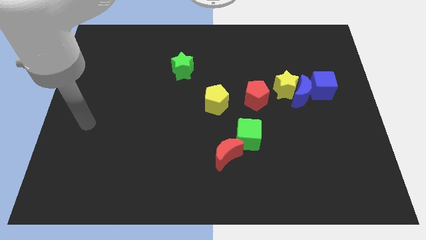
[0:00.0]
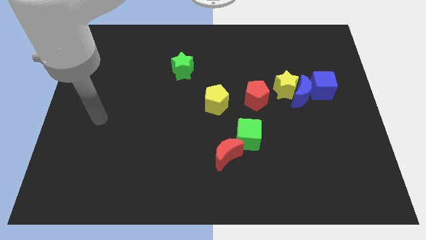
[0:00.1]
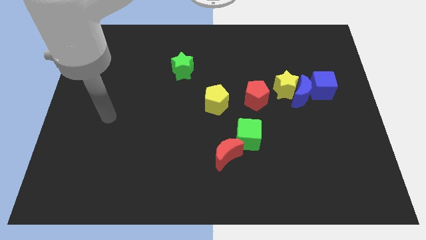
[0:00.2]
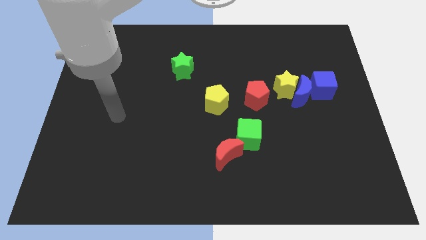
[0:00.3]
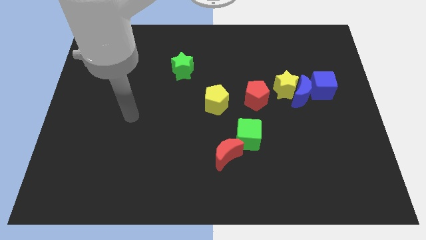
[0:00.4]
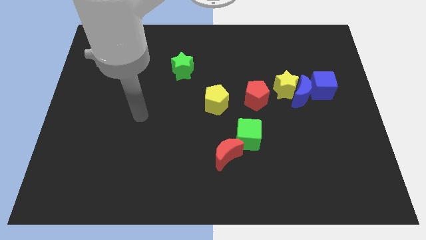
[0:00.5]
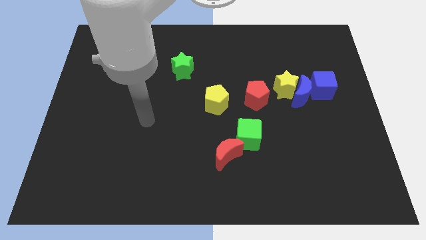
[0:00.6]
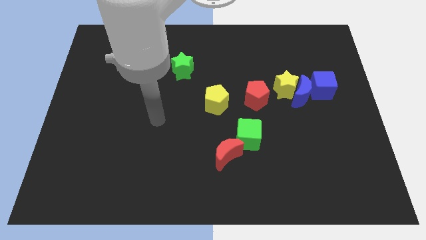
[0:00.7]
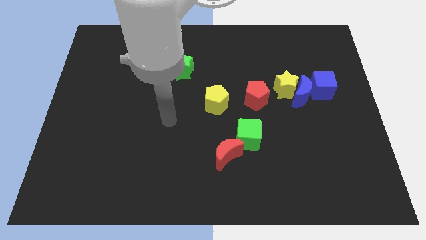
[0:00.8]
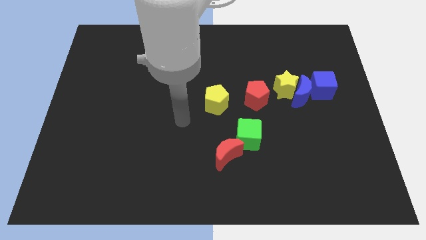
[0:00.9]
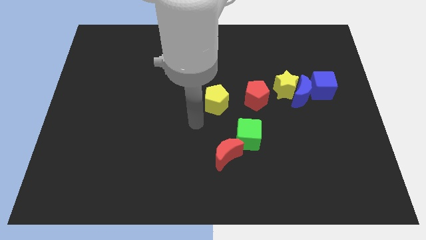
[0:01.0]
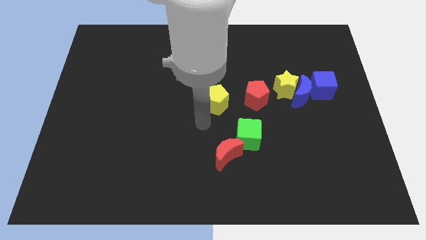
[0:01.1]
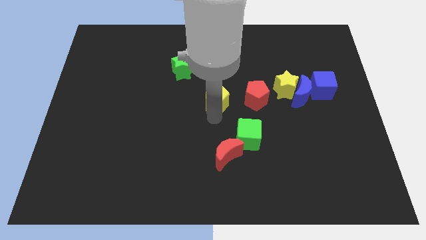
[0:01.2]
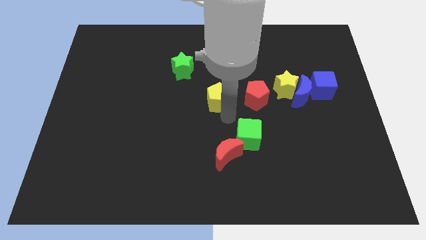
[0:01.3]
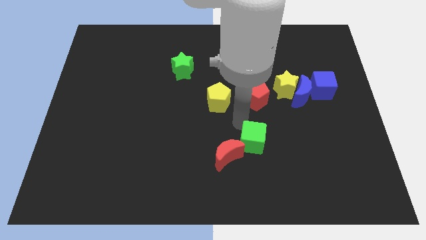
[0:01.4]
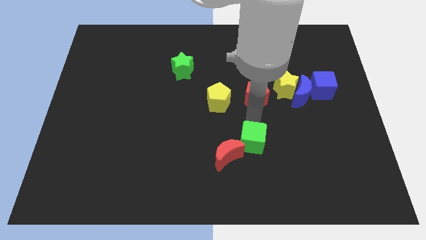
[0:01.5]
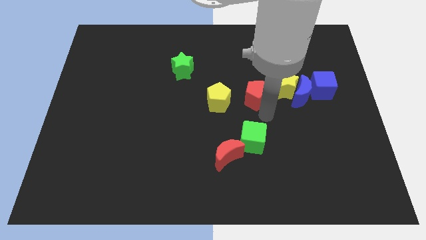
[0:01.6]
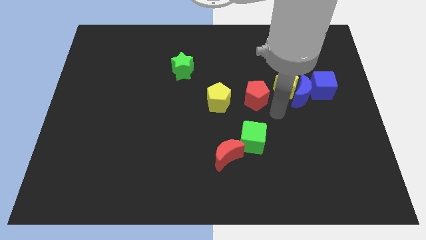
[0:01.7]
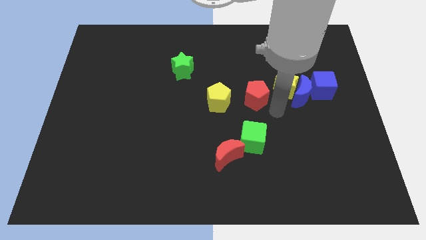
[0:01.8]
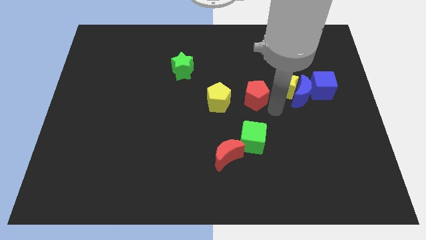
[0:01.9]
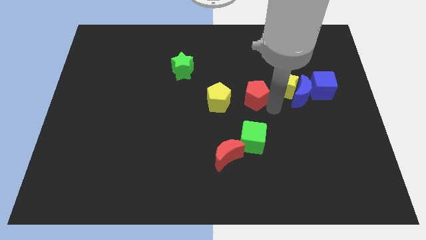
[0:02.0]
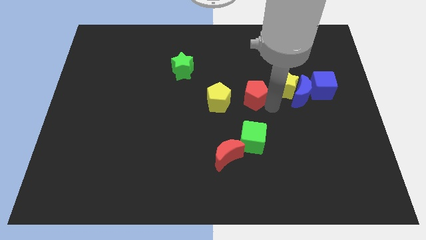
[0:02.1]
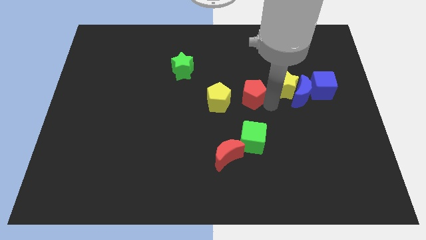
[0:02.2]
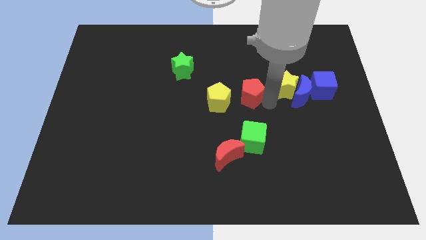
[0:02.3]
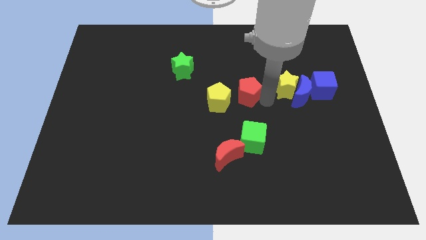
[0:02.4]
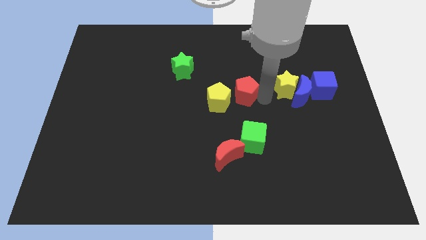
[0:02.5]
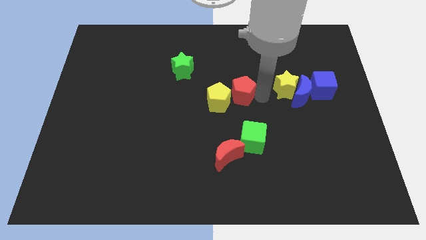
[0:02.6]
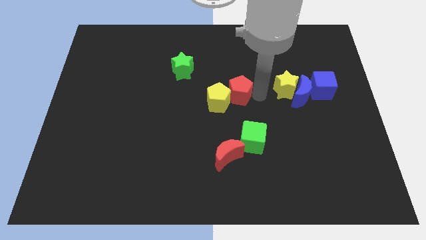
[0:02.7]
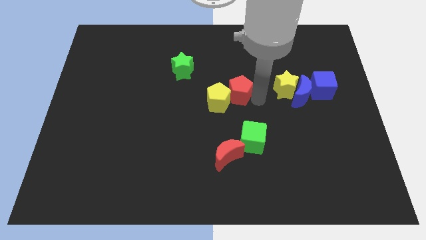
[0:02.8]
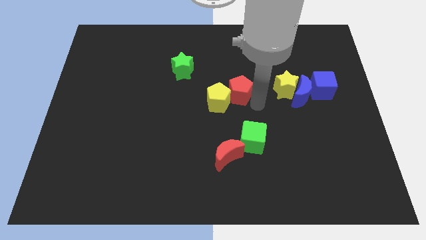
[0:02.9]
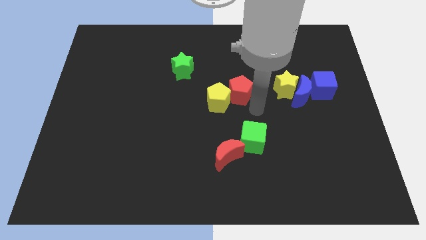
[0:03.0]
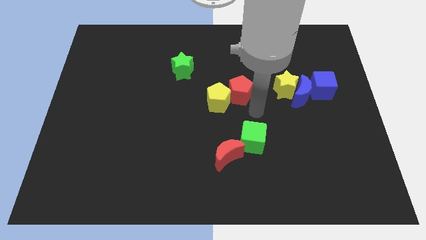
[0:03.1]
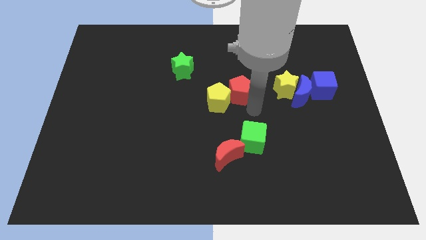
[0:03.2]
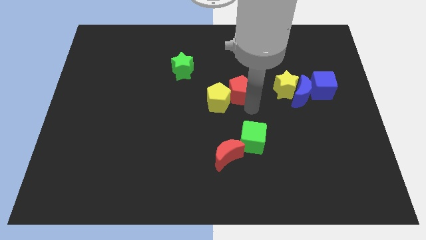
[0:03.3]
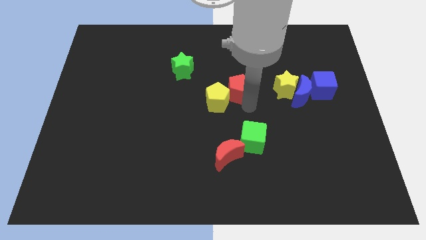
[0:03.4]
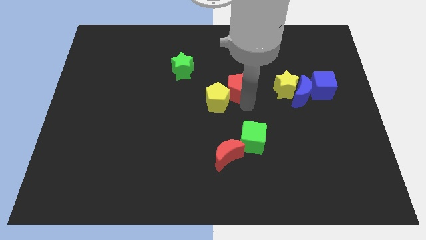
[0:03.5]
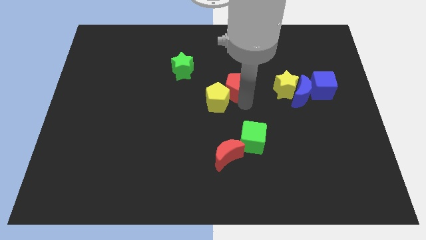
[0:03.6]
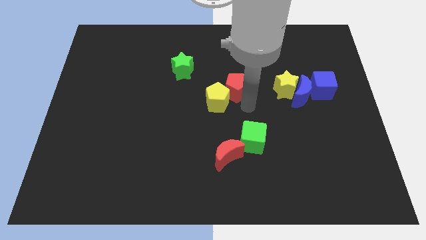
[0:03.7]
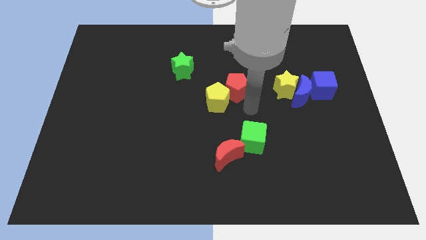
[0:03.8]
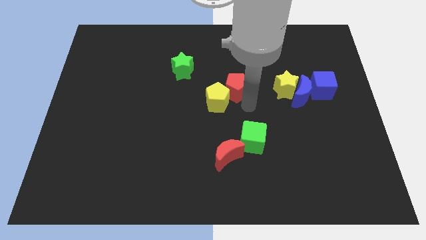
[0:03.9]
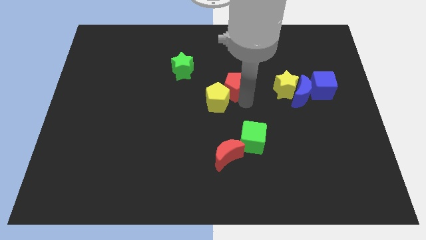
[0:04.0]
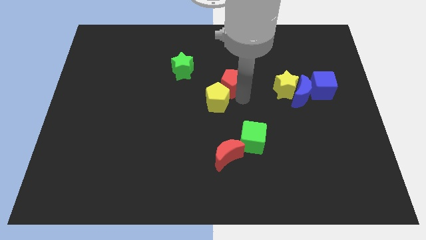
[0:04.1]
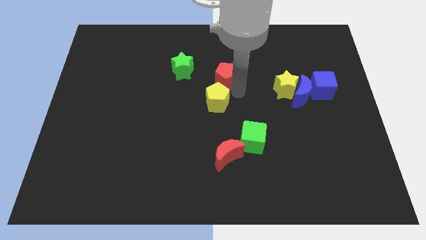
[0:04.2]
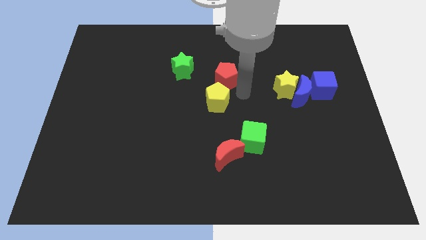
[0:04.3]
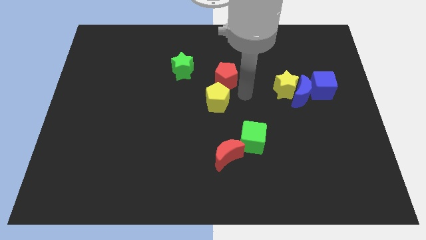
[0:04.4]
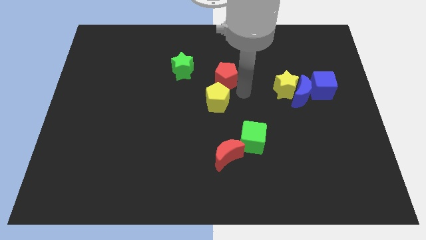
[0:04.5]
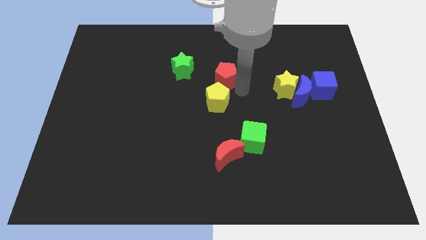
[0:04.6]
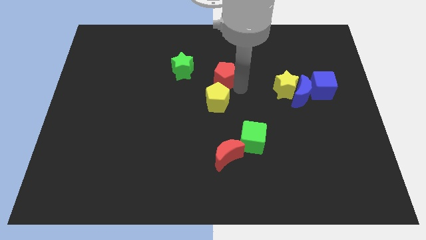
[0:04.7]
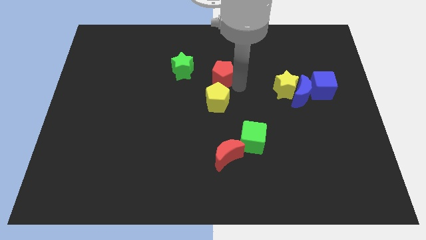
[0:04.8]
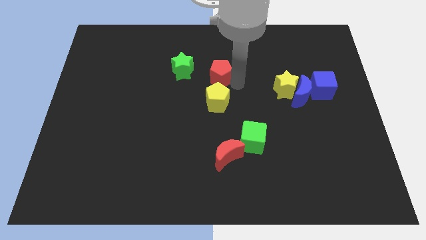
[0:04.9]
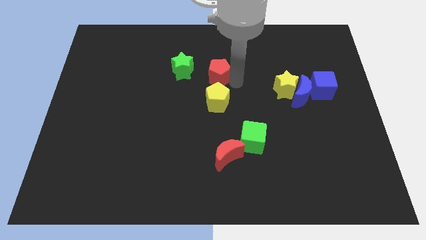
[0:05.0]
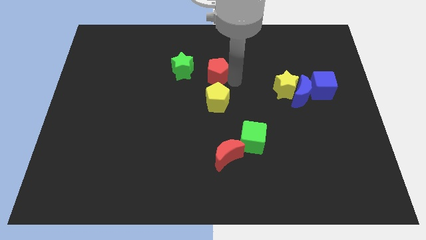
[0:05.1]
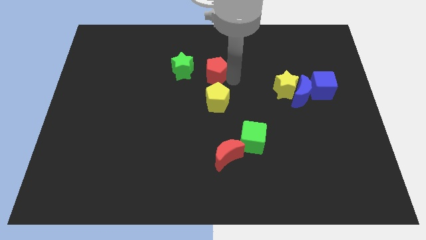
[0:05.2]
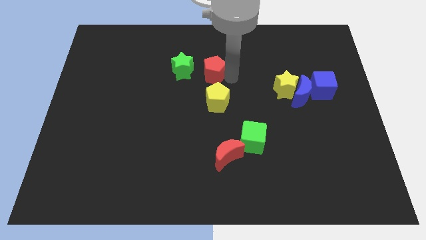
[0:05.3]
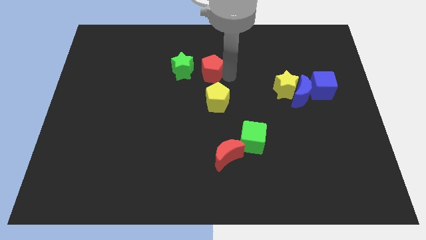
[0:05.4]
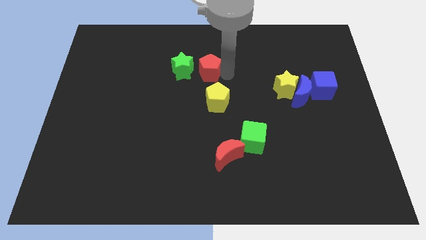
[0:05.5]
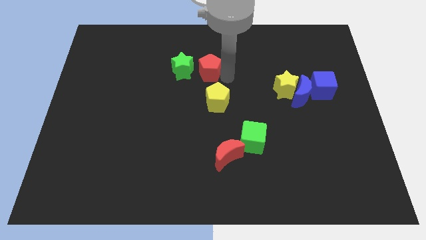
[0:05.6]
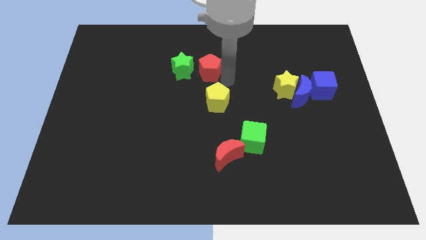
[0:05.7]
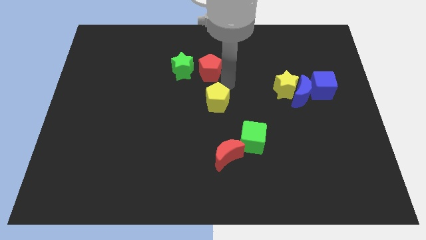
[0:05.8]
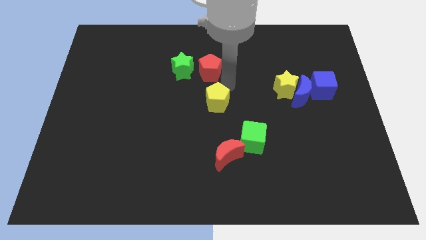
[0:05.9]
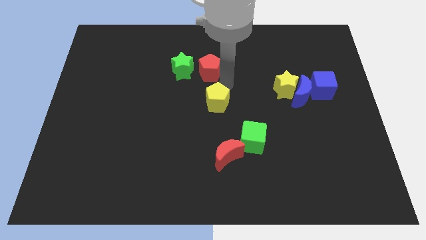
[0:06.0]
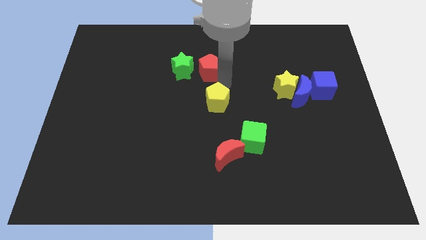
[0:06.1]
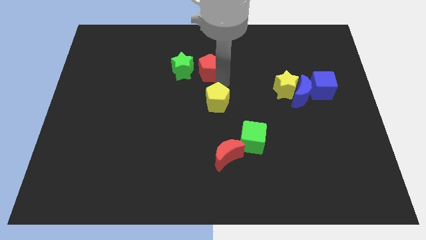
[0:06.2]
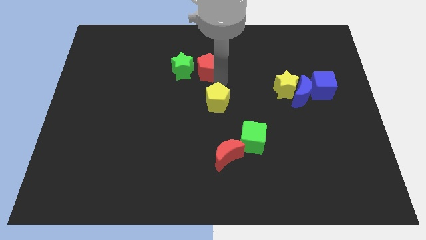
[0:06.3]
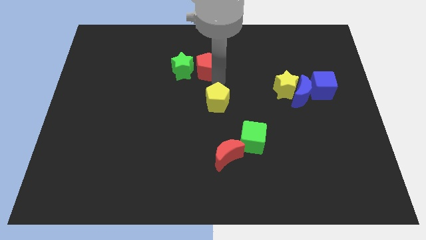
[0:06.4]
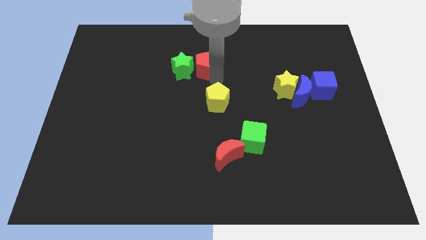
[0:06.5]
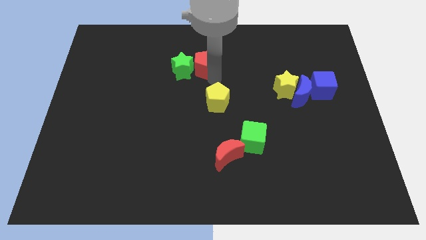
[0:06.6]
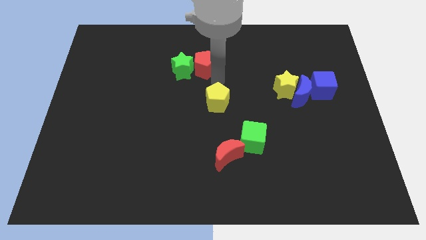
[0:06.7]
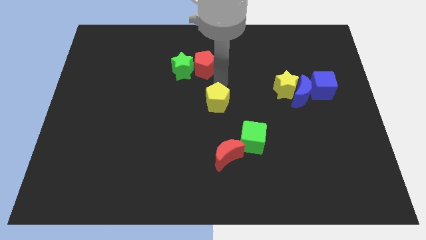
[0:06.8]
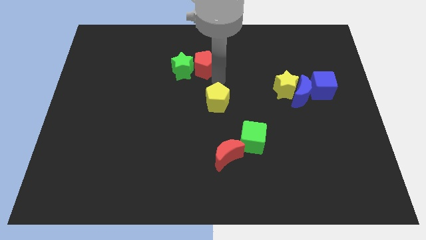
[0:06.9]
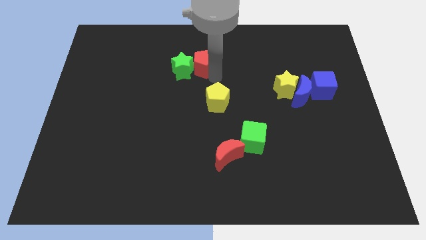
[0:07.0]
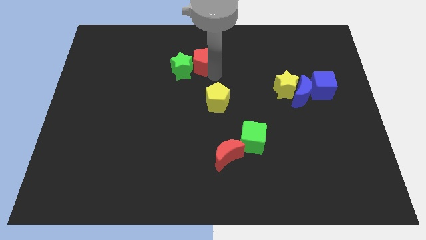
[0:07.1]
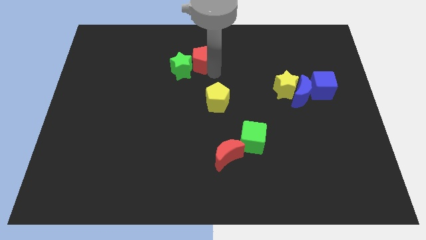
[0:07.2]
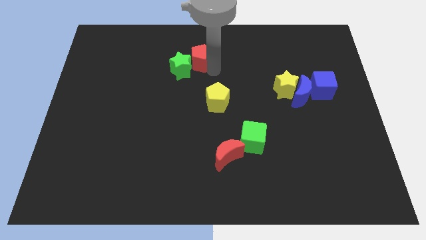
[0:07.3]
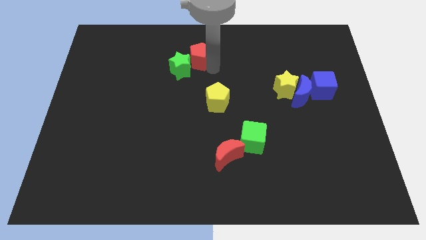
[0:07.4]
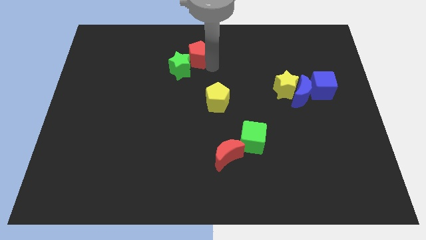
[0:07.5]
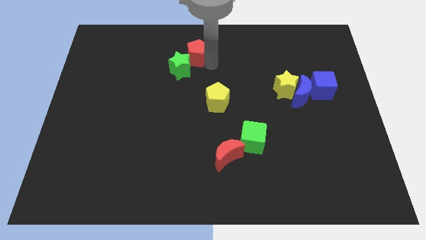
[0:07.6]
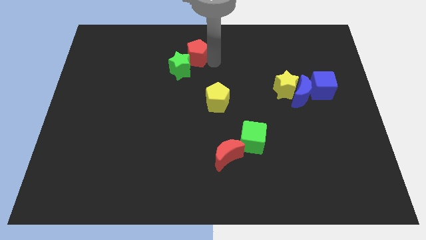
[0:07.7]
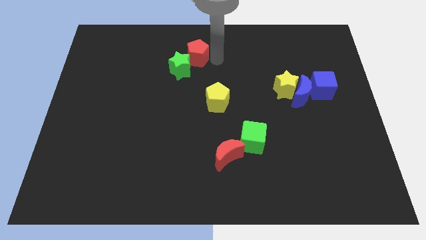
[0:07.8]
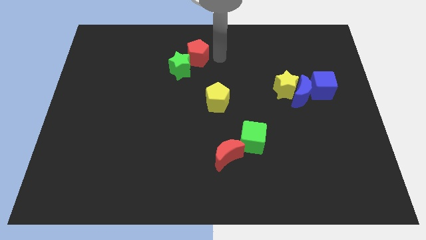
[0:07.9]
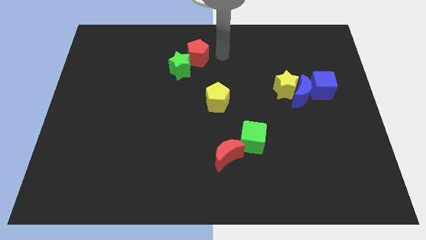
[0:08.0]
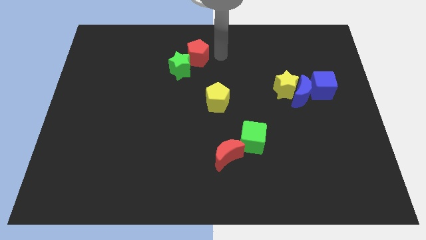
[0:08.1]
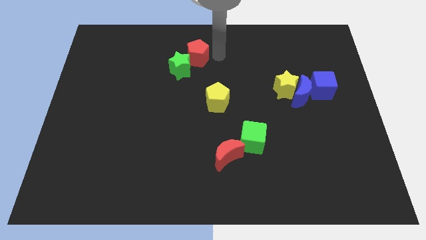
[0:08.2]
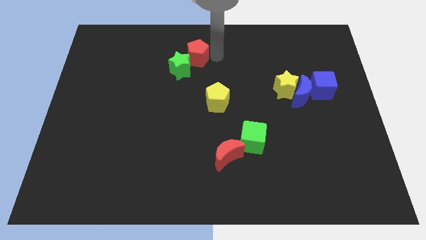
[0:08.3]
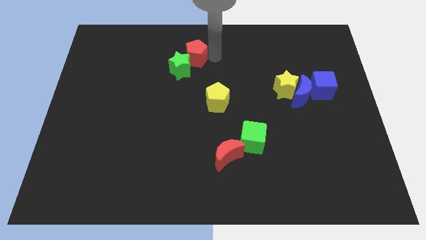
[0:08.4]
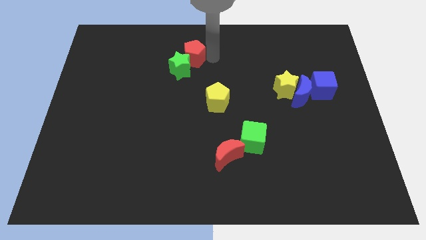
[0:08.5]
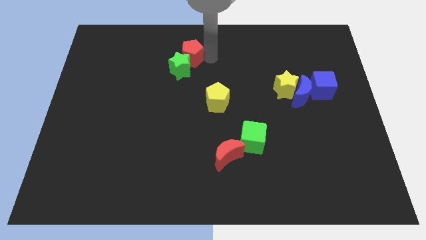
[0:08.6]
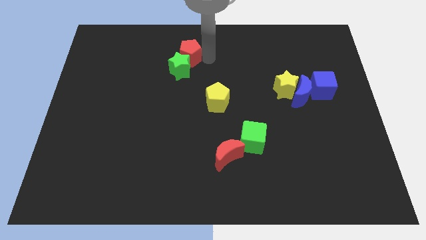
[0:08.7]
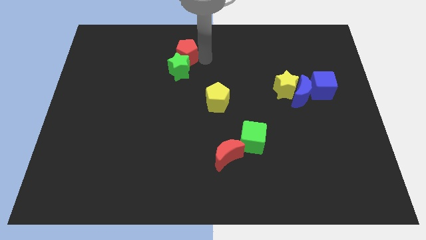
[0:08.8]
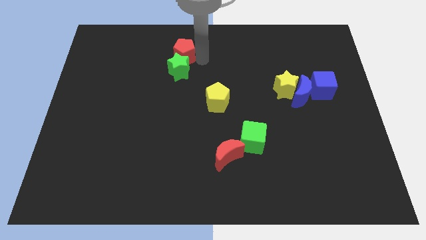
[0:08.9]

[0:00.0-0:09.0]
move the red pentagon diagonally up and to the left of the green star
